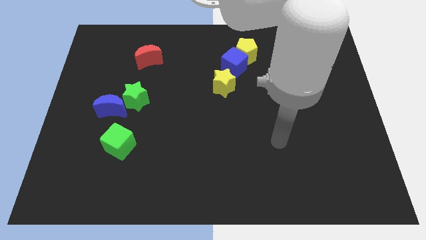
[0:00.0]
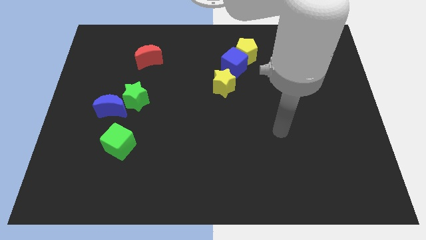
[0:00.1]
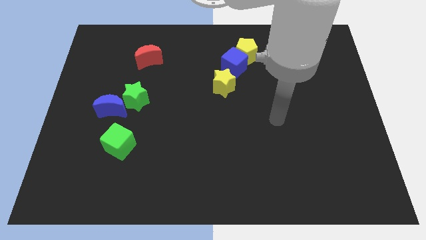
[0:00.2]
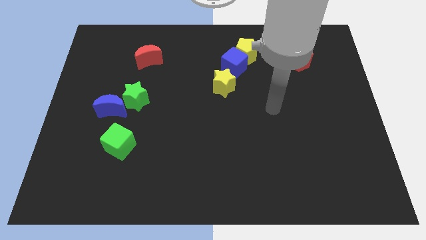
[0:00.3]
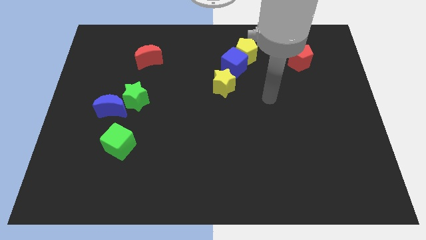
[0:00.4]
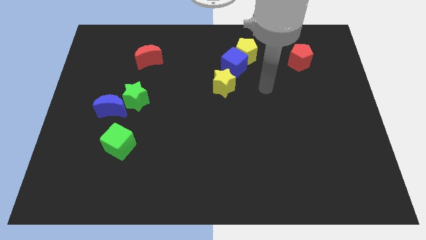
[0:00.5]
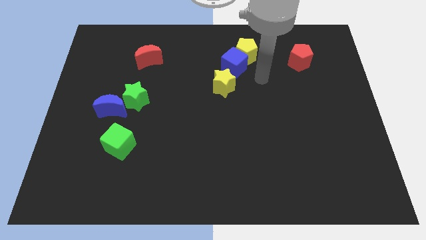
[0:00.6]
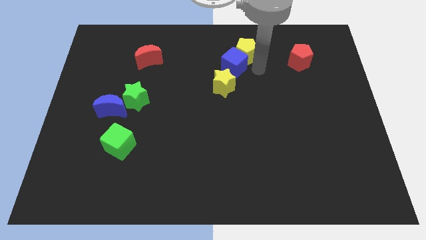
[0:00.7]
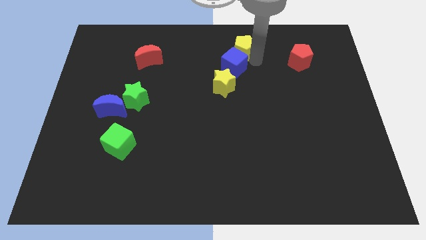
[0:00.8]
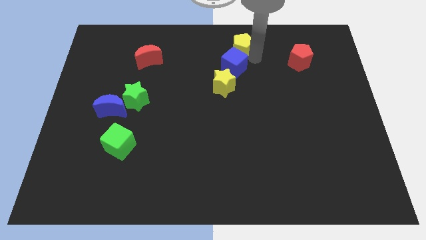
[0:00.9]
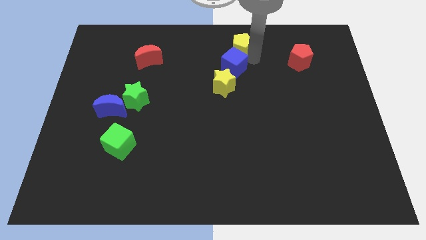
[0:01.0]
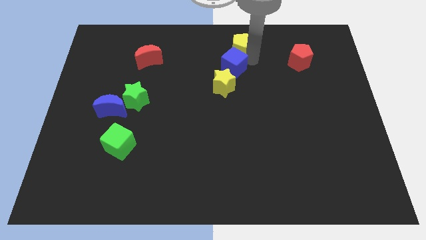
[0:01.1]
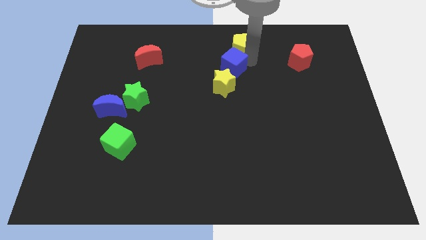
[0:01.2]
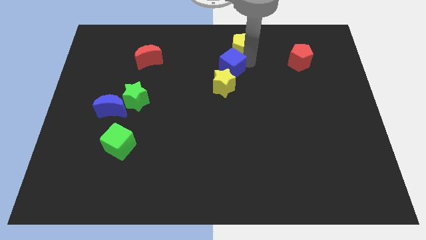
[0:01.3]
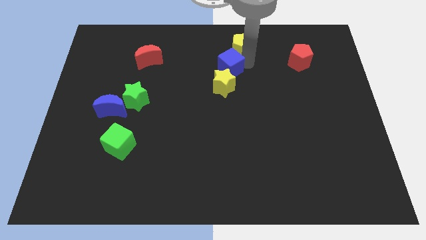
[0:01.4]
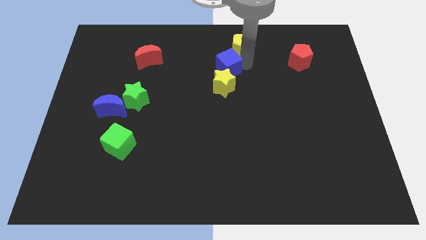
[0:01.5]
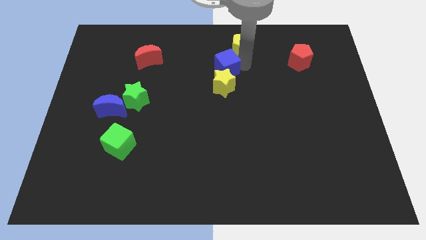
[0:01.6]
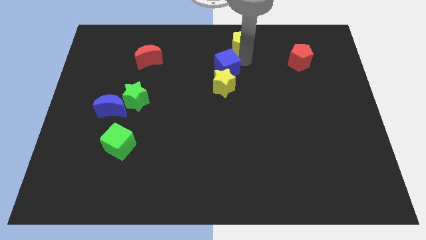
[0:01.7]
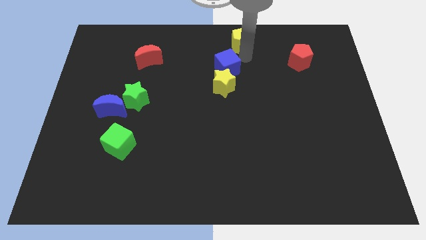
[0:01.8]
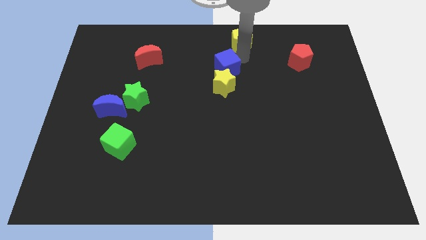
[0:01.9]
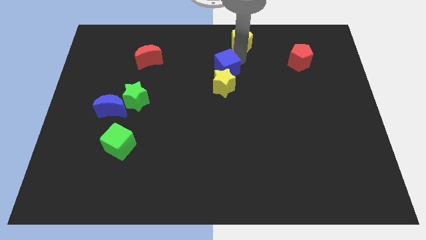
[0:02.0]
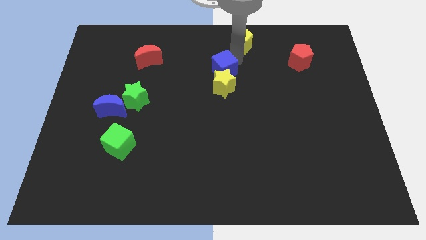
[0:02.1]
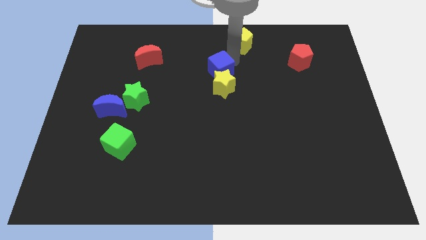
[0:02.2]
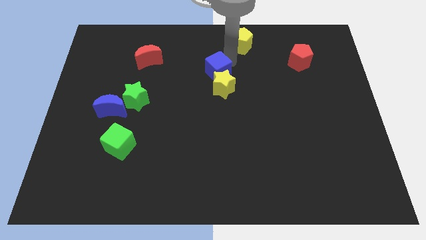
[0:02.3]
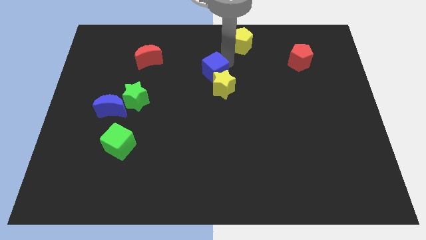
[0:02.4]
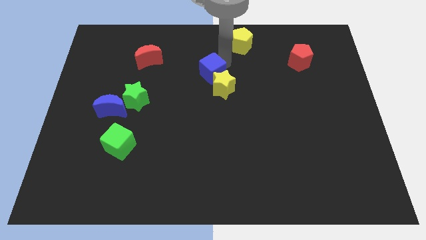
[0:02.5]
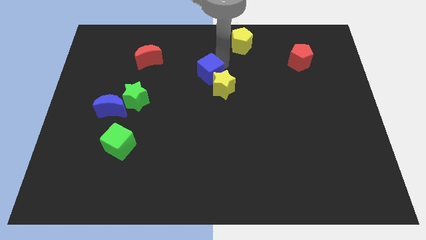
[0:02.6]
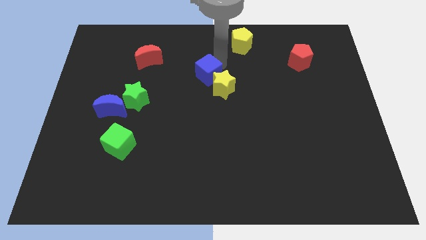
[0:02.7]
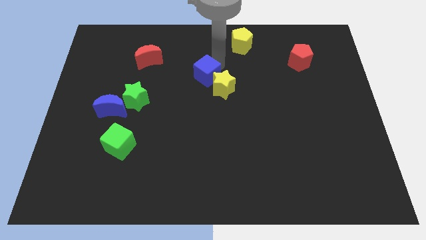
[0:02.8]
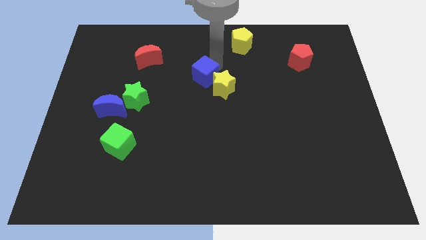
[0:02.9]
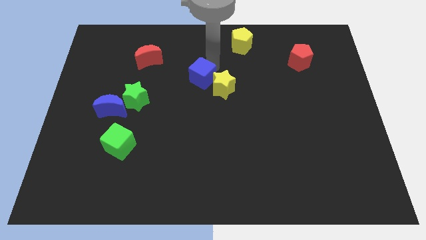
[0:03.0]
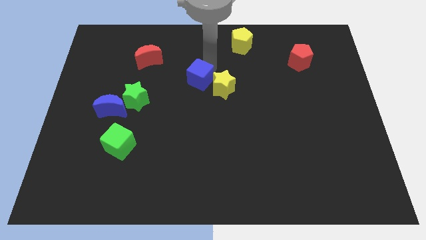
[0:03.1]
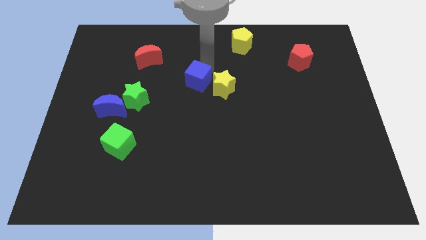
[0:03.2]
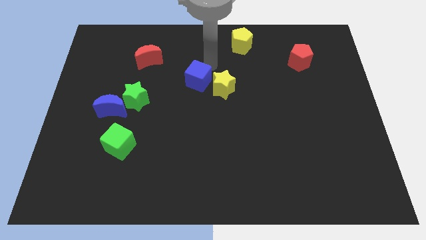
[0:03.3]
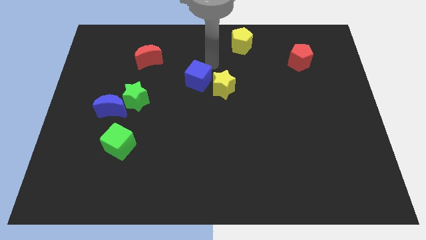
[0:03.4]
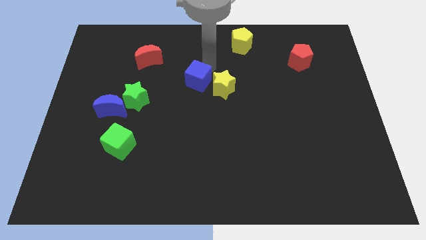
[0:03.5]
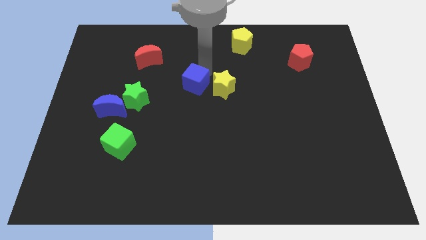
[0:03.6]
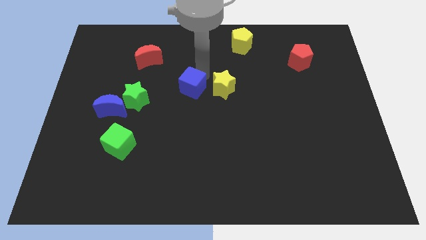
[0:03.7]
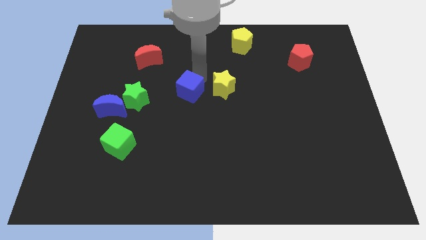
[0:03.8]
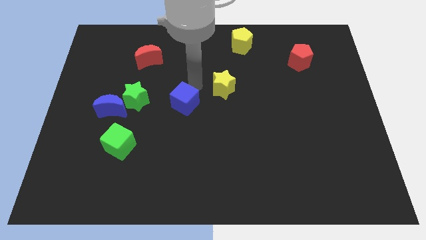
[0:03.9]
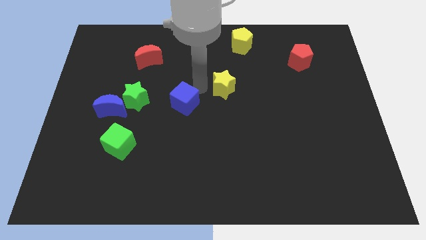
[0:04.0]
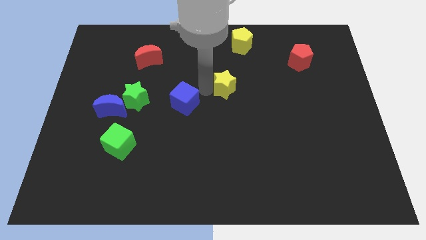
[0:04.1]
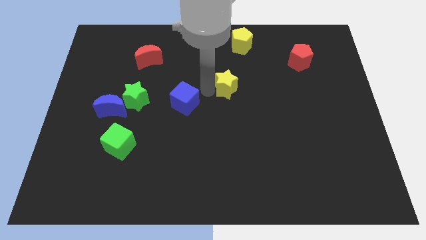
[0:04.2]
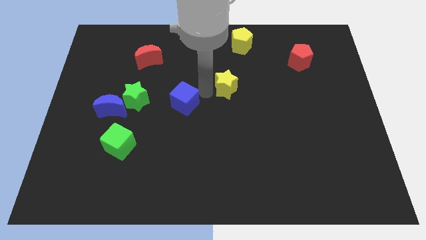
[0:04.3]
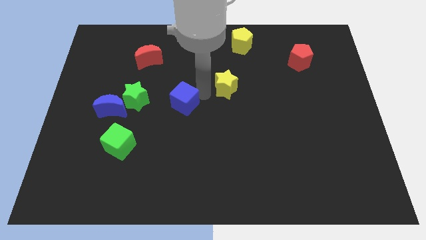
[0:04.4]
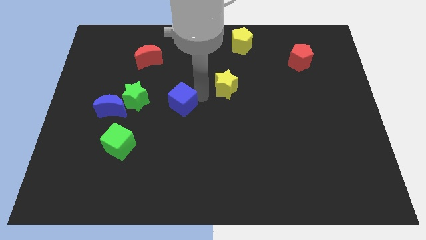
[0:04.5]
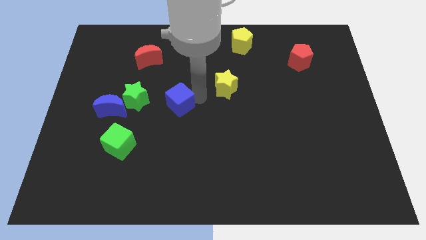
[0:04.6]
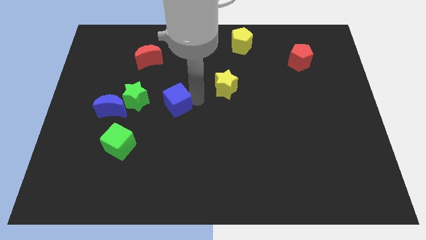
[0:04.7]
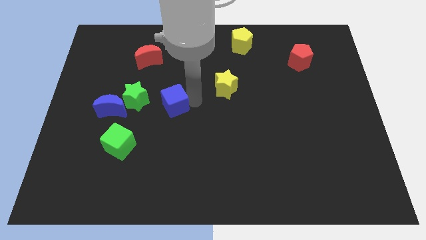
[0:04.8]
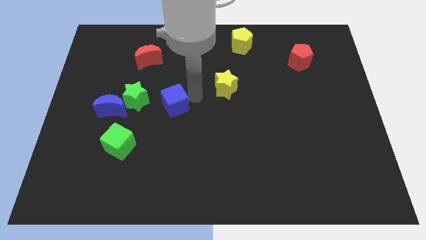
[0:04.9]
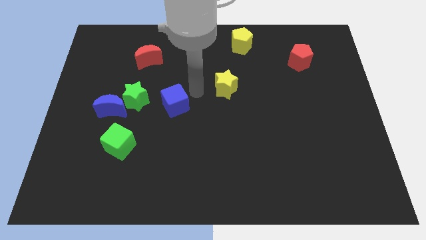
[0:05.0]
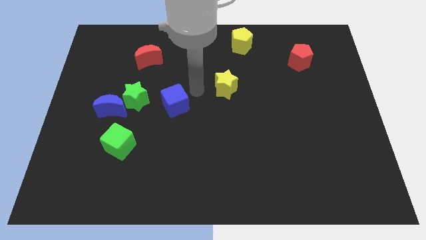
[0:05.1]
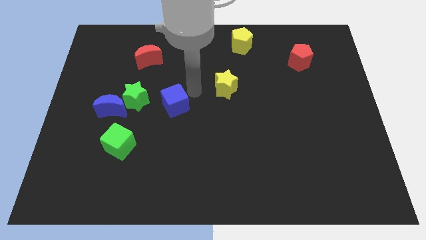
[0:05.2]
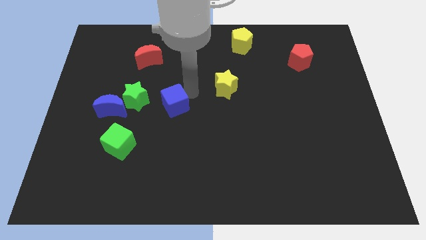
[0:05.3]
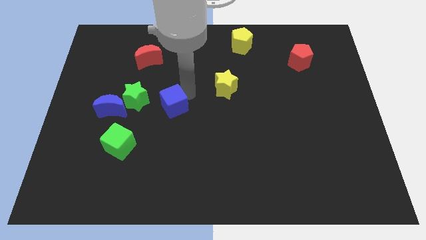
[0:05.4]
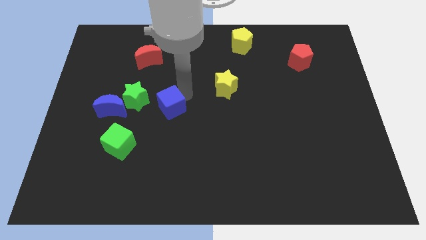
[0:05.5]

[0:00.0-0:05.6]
put the blue cube diagonally down and to the right of the green star

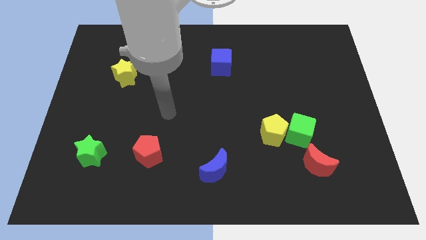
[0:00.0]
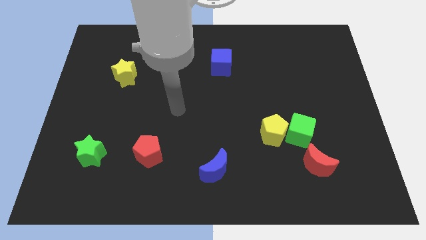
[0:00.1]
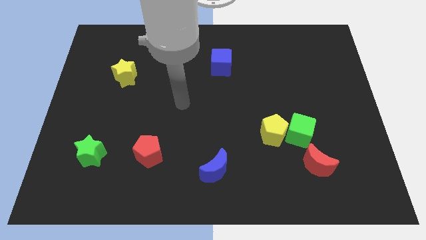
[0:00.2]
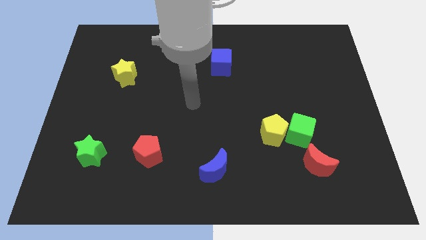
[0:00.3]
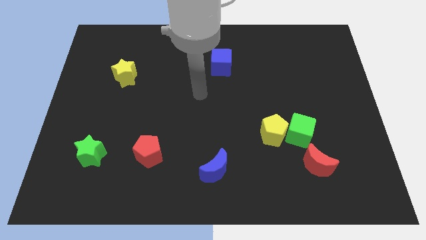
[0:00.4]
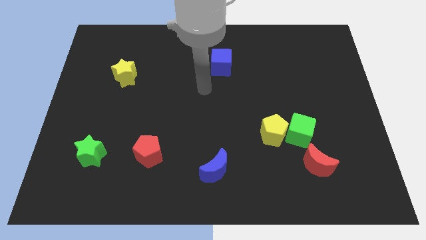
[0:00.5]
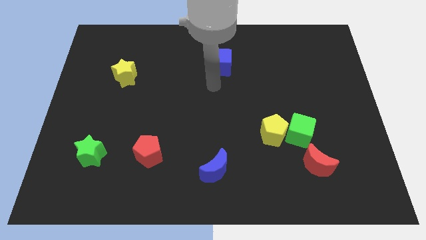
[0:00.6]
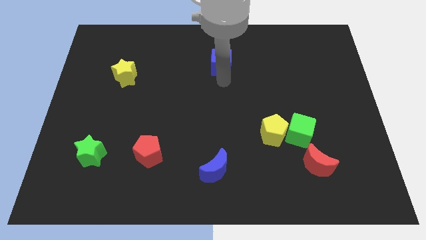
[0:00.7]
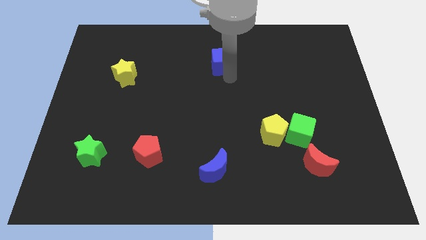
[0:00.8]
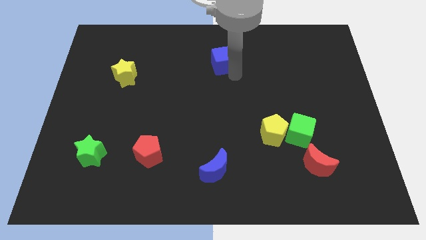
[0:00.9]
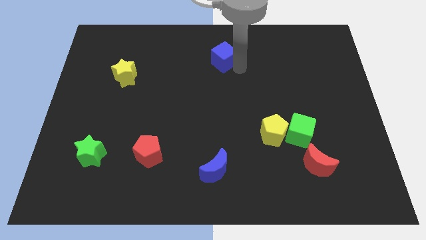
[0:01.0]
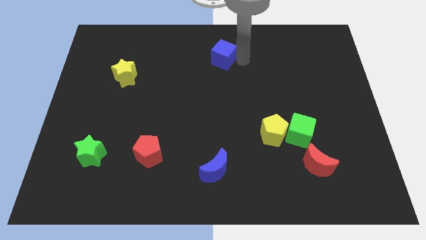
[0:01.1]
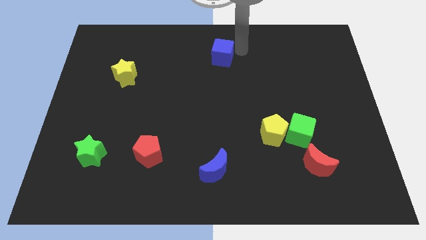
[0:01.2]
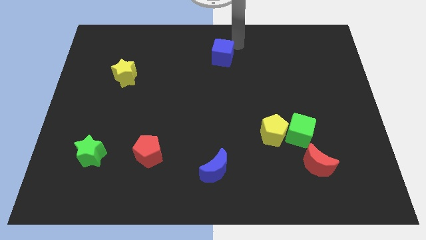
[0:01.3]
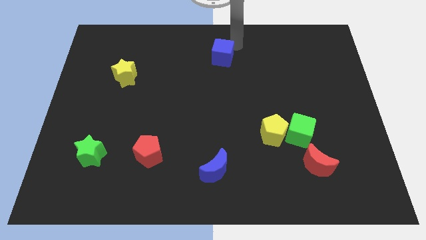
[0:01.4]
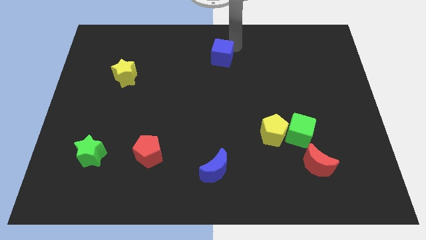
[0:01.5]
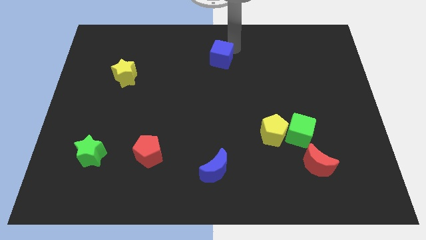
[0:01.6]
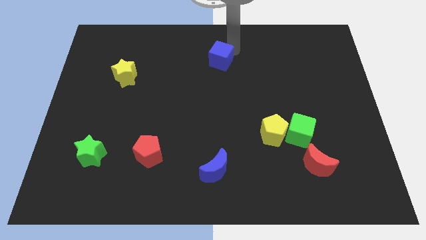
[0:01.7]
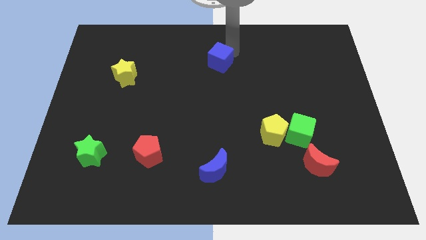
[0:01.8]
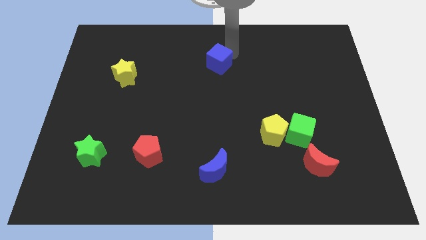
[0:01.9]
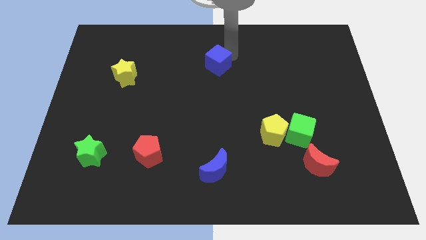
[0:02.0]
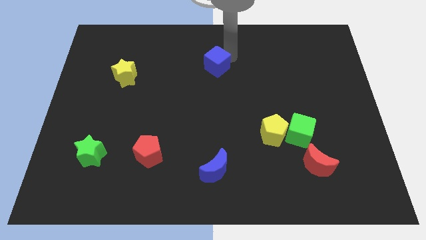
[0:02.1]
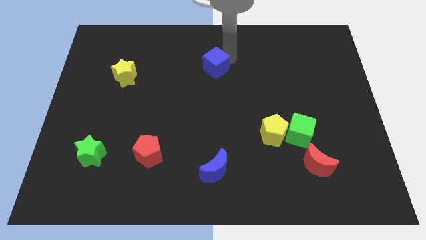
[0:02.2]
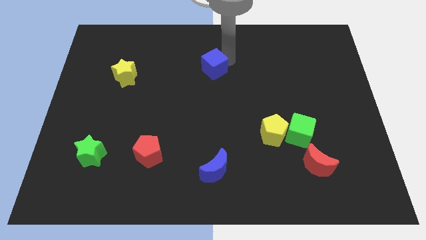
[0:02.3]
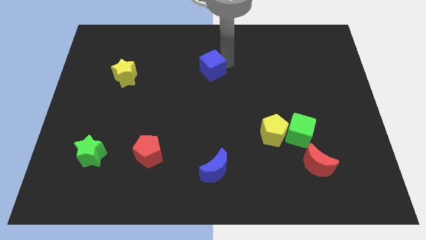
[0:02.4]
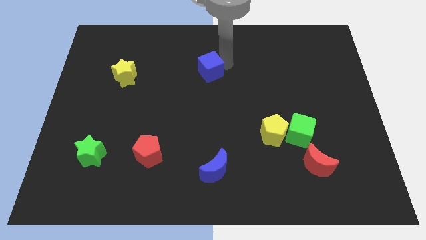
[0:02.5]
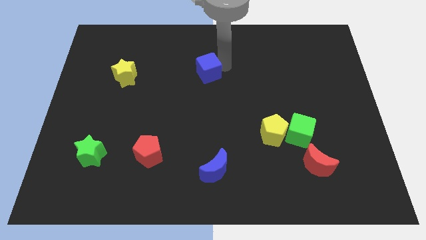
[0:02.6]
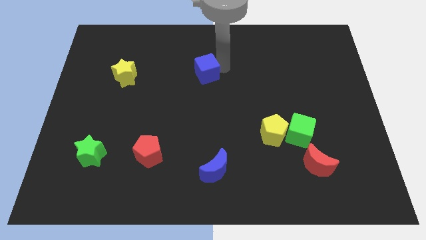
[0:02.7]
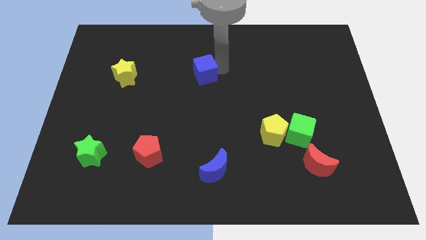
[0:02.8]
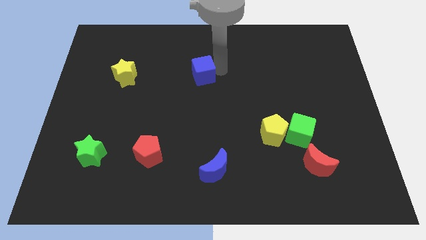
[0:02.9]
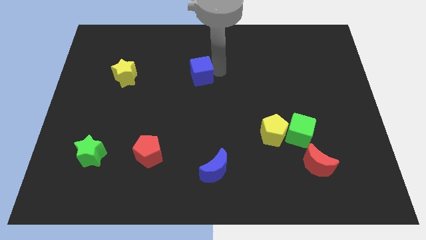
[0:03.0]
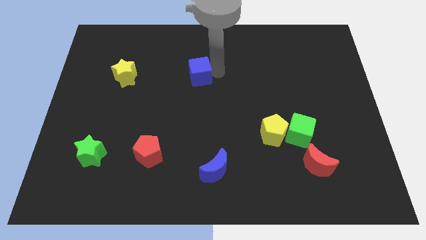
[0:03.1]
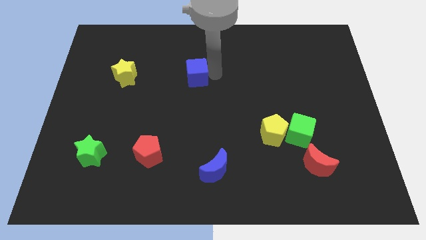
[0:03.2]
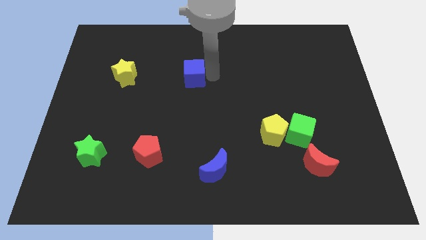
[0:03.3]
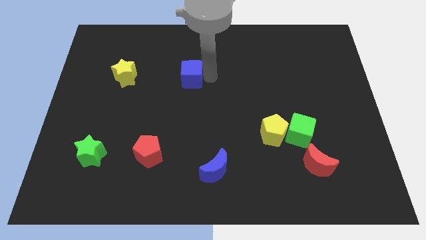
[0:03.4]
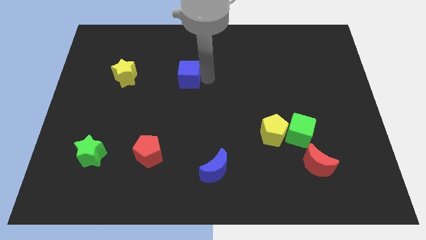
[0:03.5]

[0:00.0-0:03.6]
slide the blue cube to the right side of the yellow star
